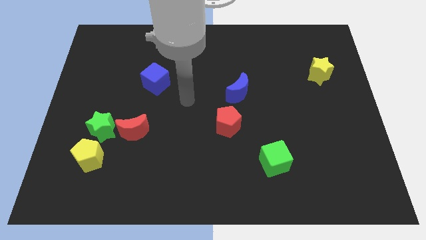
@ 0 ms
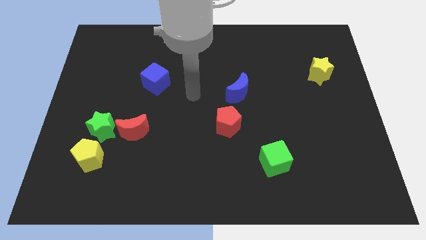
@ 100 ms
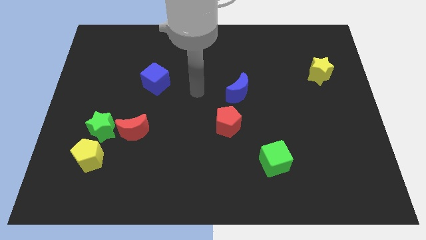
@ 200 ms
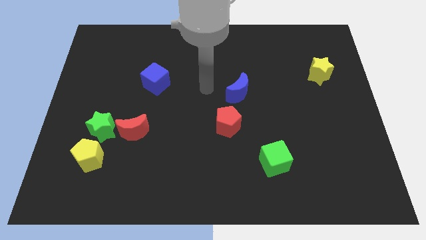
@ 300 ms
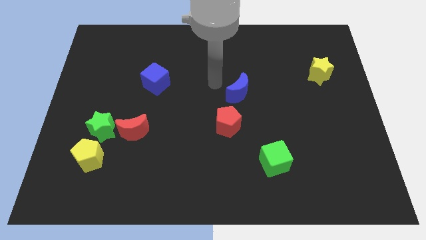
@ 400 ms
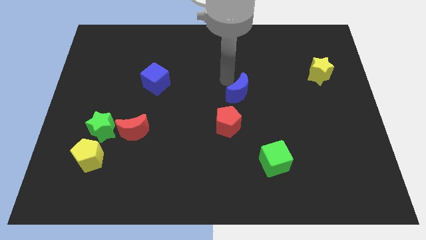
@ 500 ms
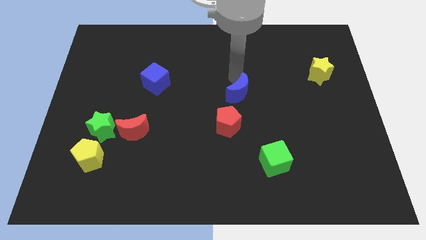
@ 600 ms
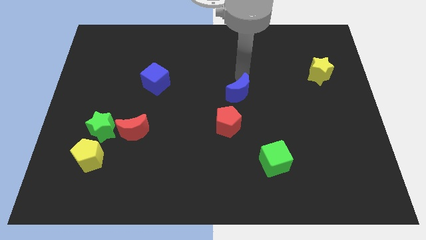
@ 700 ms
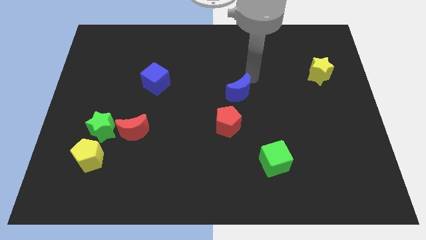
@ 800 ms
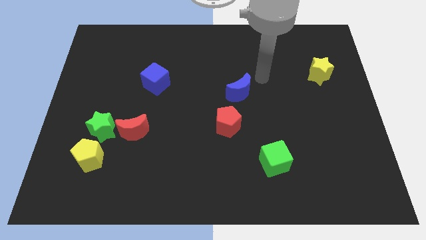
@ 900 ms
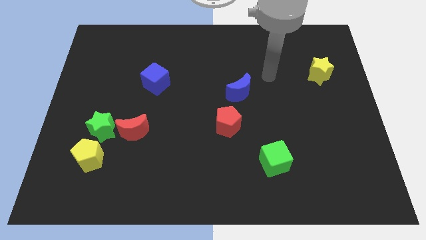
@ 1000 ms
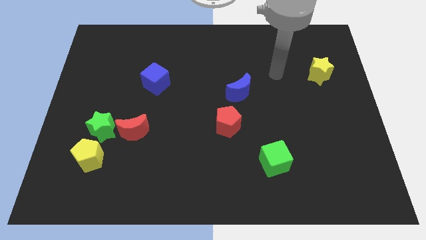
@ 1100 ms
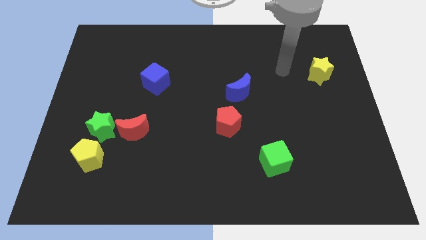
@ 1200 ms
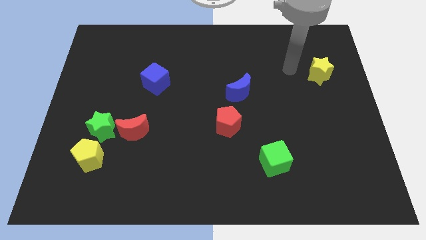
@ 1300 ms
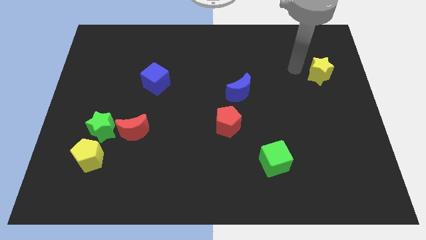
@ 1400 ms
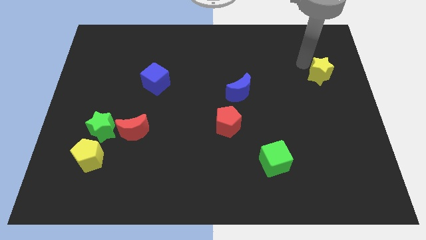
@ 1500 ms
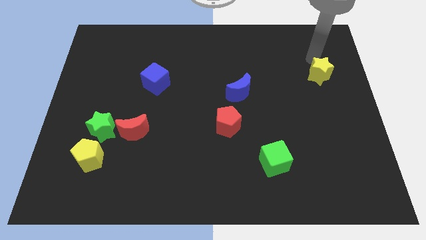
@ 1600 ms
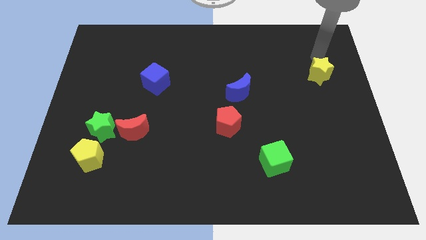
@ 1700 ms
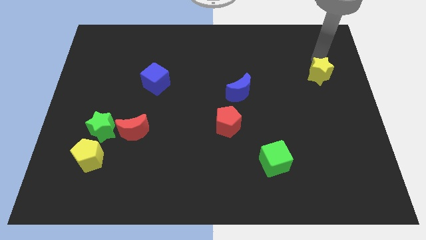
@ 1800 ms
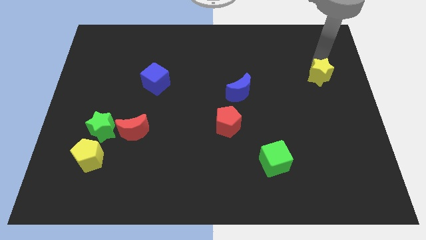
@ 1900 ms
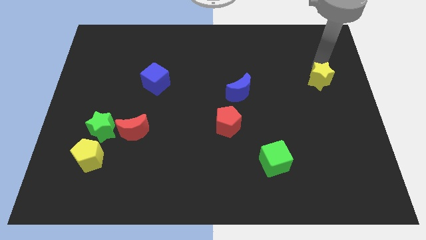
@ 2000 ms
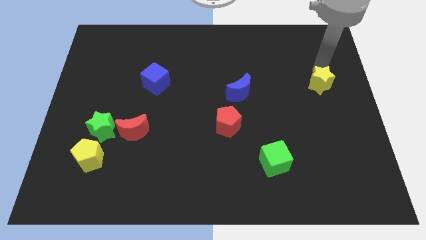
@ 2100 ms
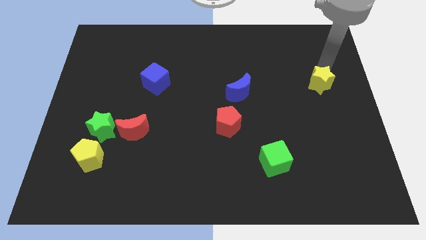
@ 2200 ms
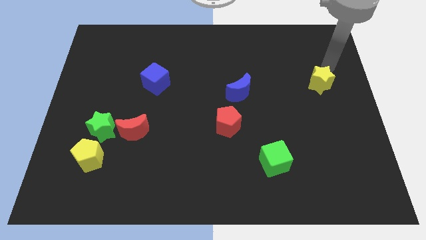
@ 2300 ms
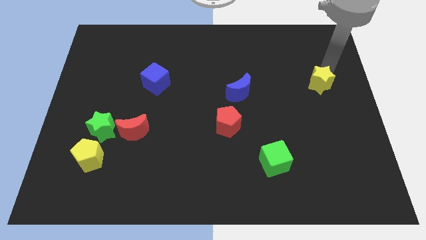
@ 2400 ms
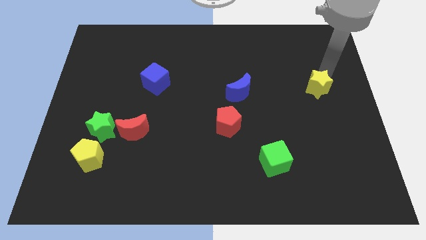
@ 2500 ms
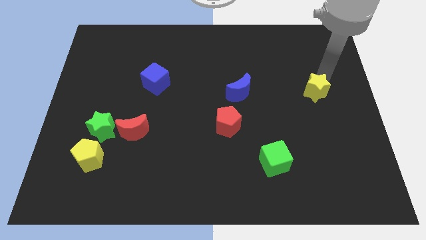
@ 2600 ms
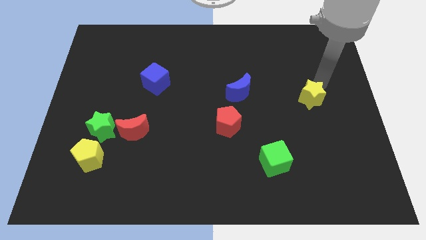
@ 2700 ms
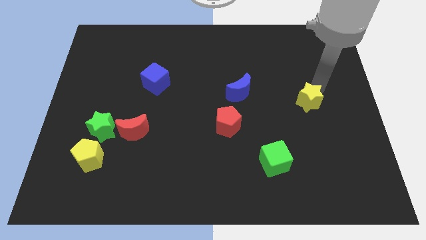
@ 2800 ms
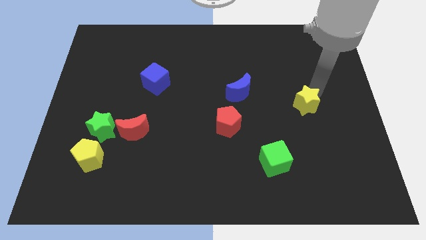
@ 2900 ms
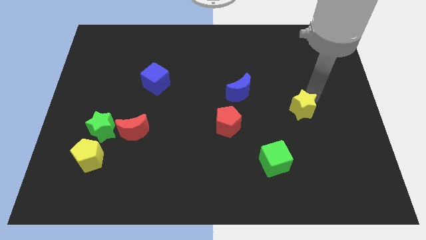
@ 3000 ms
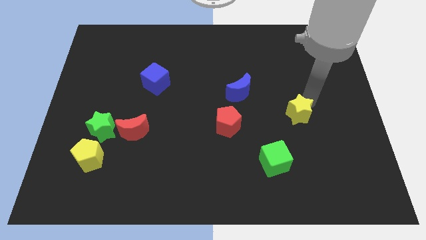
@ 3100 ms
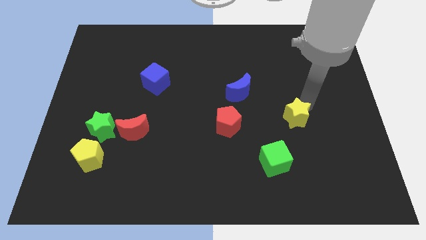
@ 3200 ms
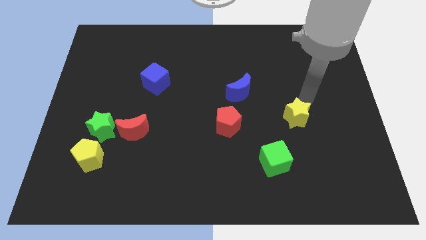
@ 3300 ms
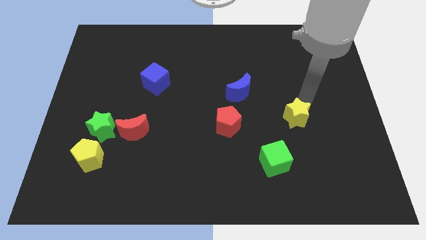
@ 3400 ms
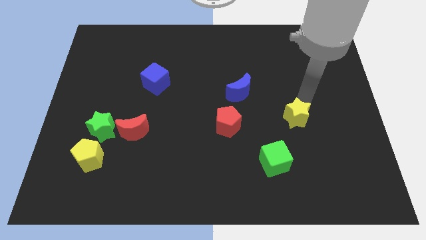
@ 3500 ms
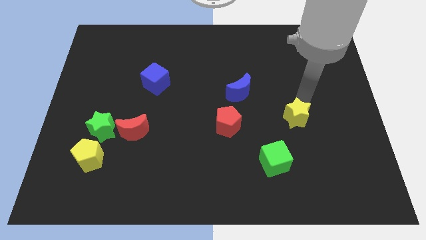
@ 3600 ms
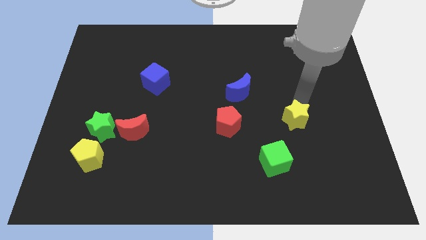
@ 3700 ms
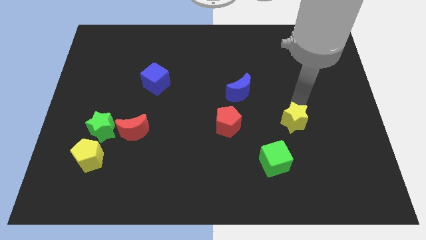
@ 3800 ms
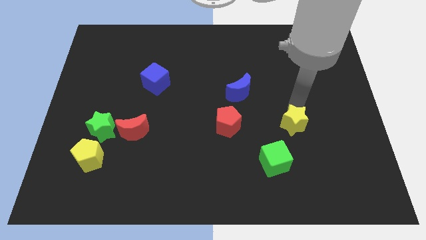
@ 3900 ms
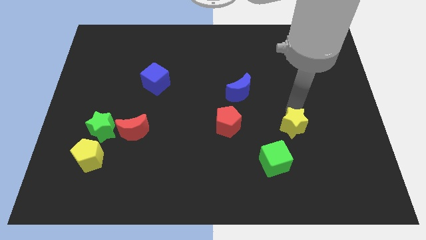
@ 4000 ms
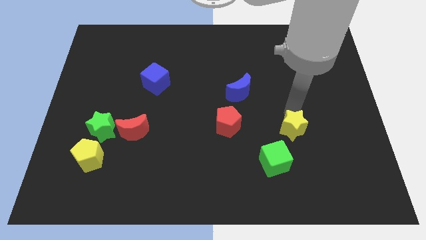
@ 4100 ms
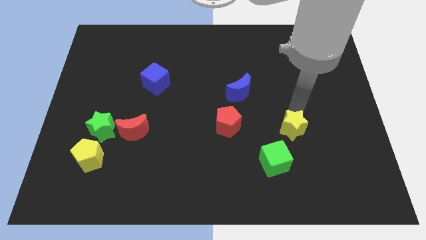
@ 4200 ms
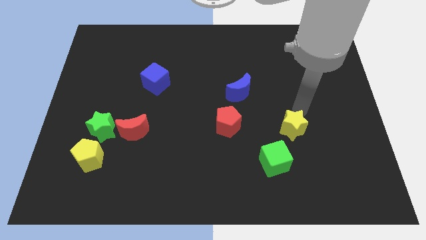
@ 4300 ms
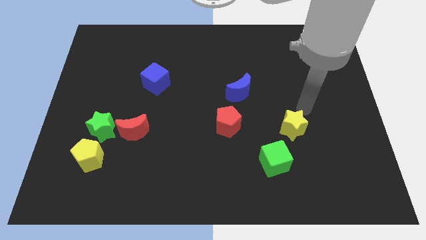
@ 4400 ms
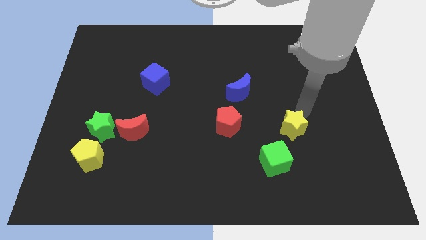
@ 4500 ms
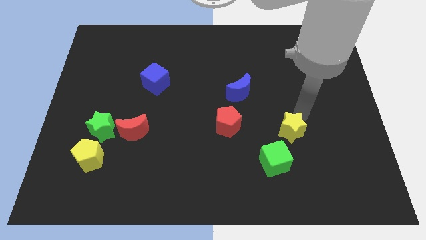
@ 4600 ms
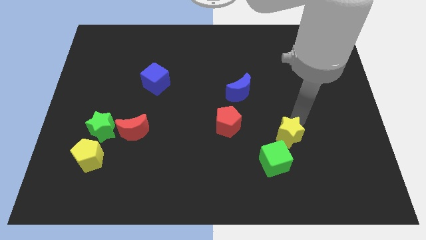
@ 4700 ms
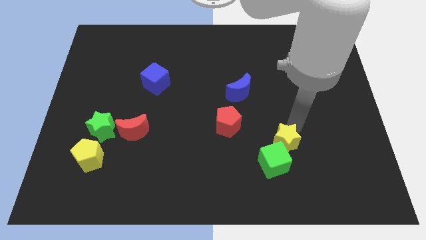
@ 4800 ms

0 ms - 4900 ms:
move the yellow star next to the green cube

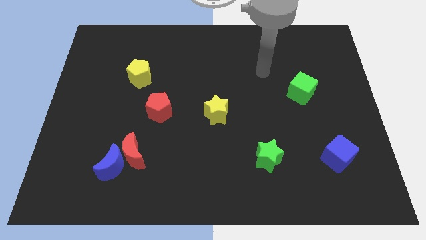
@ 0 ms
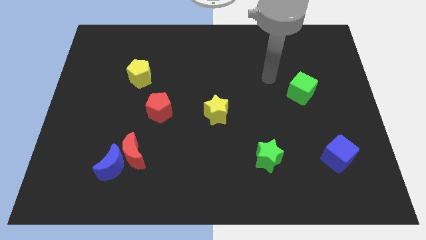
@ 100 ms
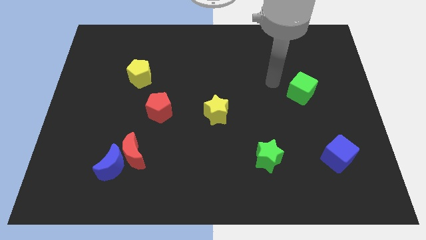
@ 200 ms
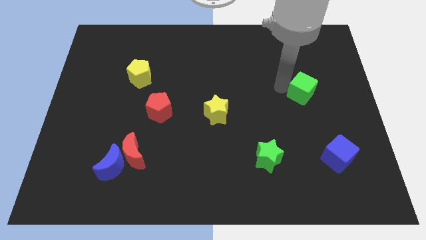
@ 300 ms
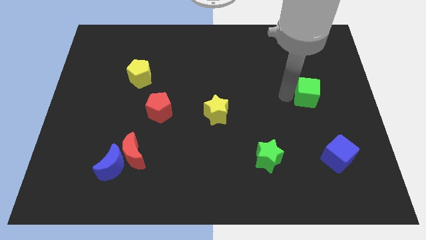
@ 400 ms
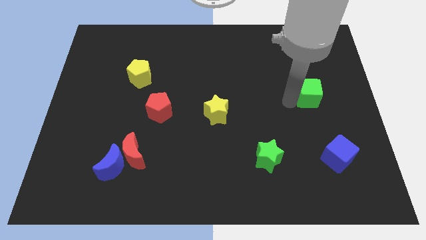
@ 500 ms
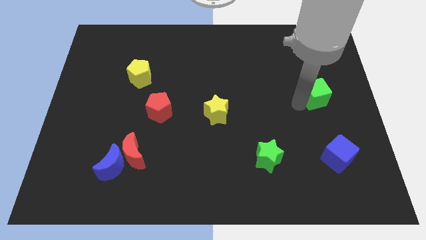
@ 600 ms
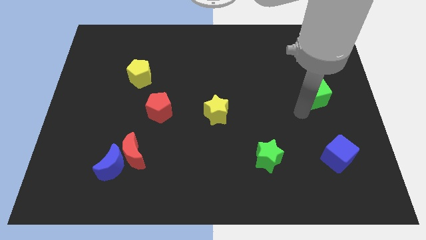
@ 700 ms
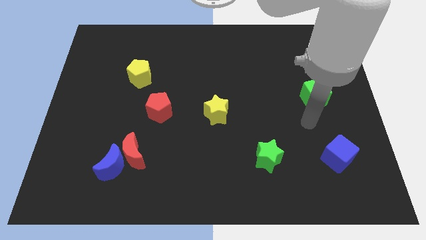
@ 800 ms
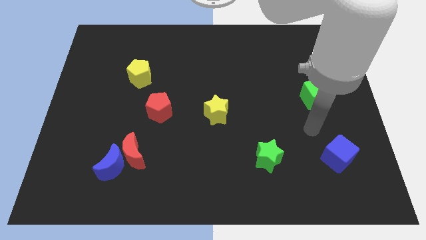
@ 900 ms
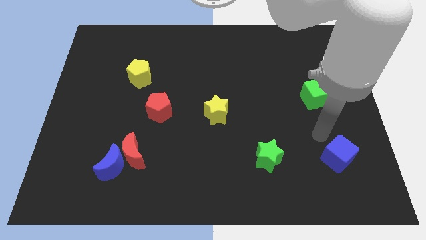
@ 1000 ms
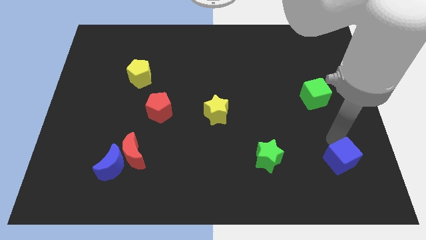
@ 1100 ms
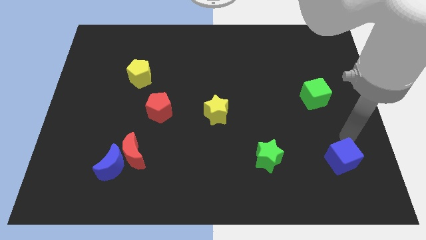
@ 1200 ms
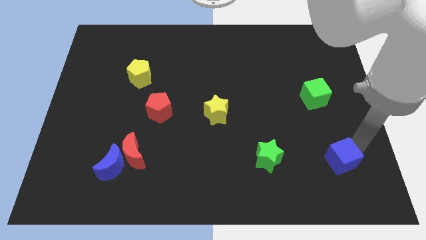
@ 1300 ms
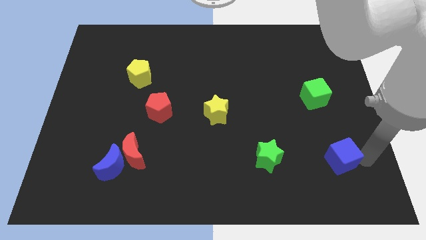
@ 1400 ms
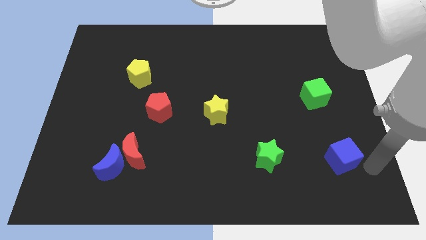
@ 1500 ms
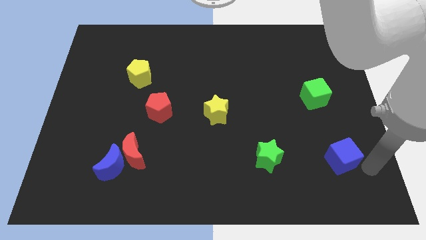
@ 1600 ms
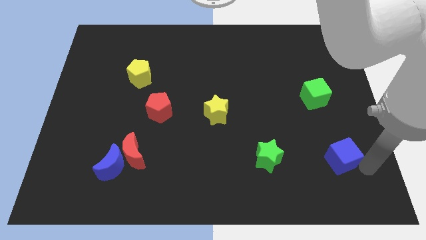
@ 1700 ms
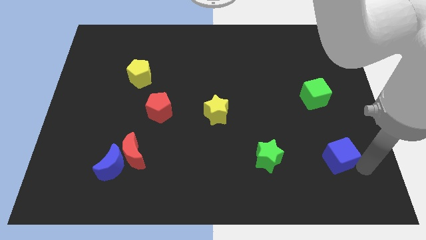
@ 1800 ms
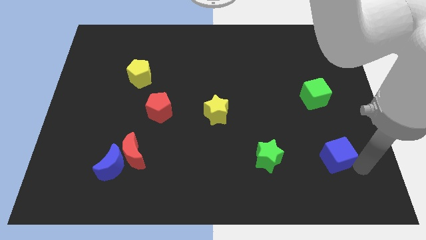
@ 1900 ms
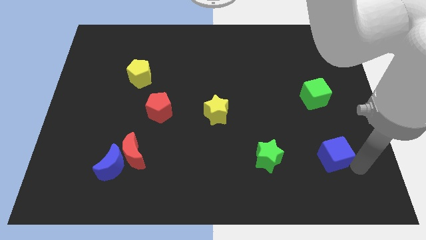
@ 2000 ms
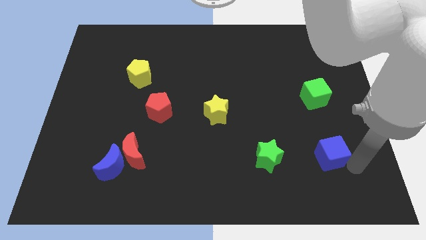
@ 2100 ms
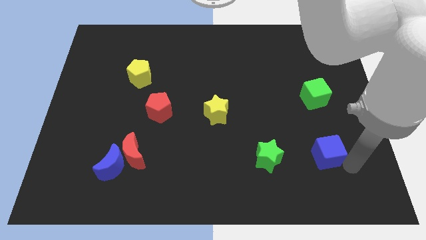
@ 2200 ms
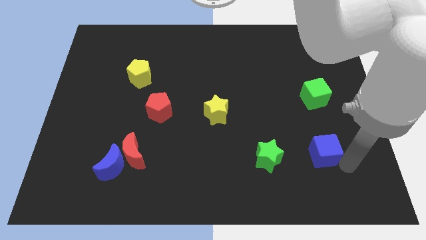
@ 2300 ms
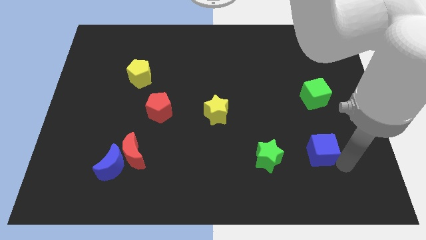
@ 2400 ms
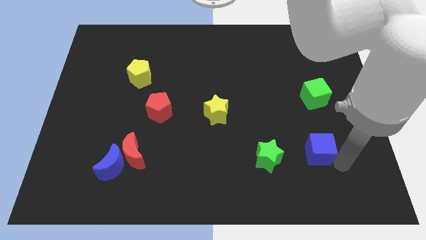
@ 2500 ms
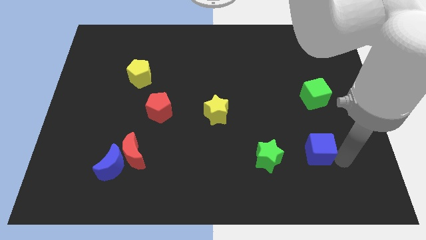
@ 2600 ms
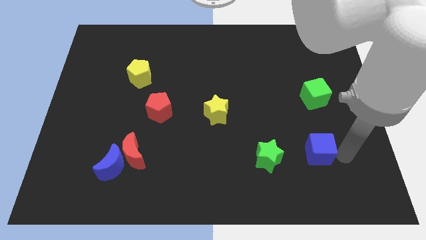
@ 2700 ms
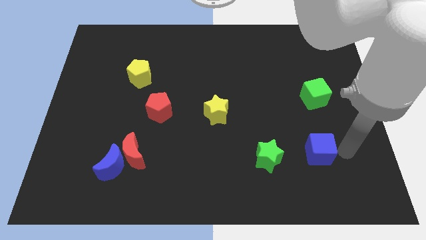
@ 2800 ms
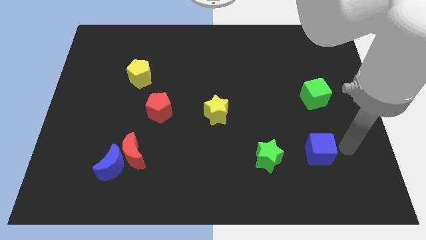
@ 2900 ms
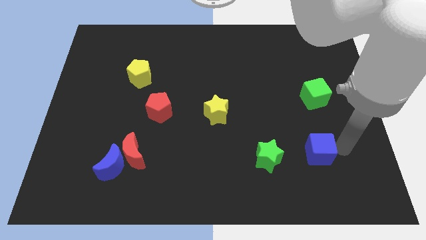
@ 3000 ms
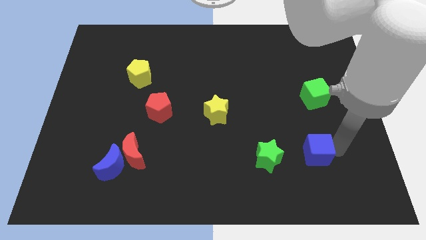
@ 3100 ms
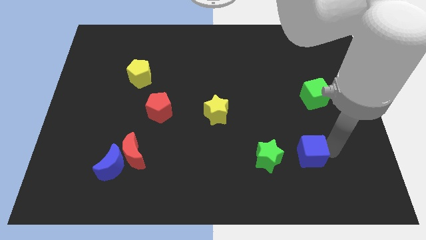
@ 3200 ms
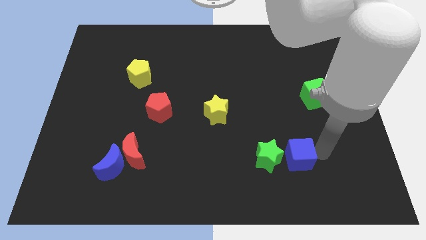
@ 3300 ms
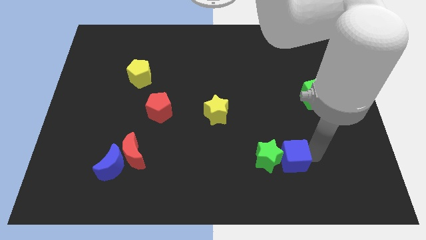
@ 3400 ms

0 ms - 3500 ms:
push the blue cube to the green star
